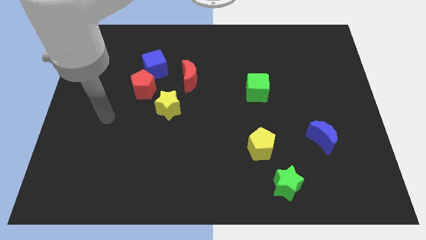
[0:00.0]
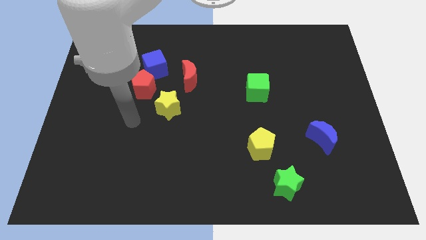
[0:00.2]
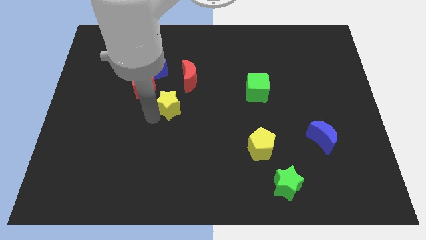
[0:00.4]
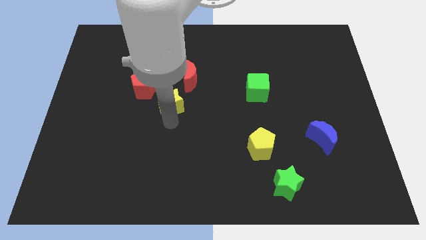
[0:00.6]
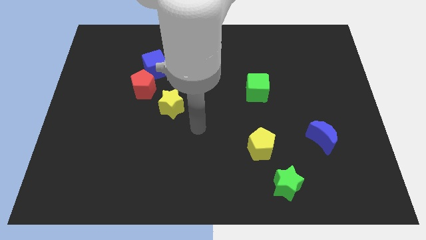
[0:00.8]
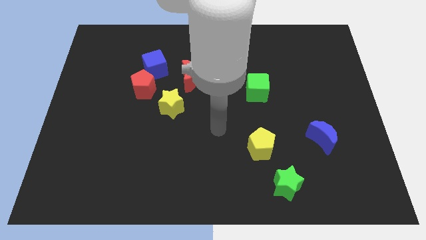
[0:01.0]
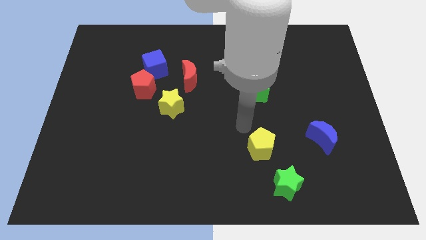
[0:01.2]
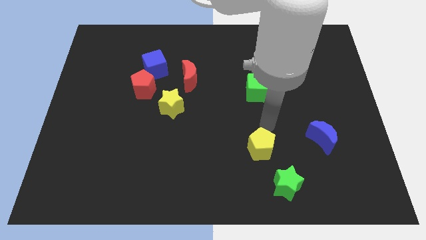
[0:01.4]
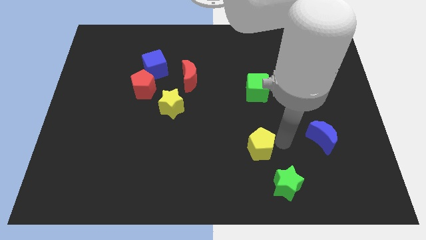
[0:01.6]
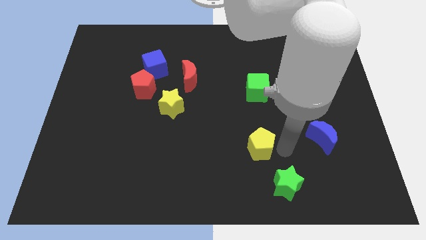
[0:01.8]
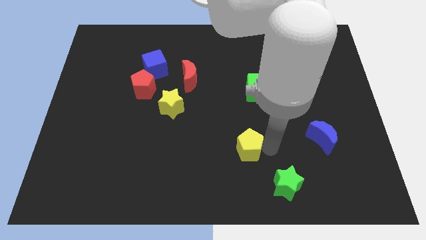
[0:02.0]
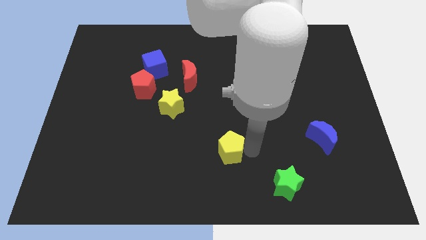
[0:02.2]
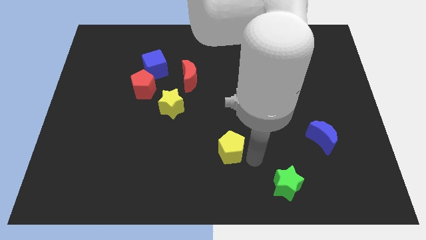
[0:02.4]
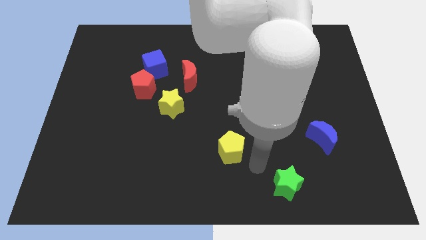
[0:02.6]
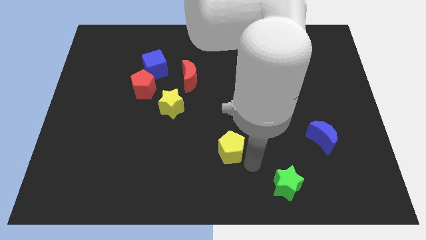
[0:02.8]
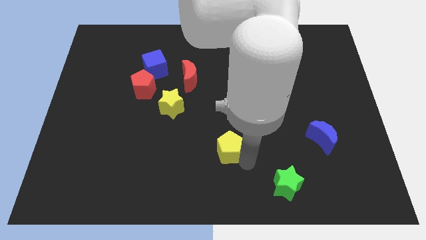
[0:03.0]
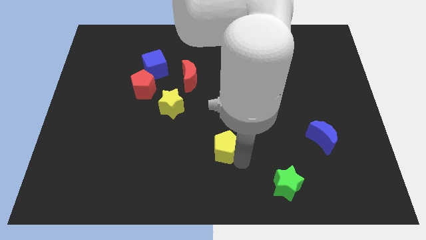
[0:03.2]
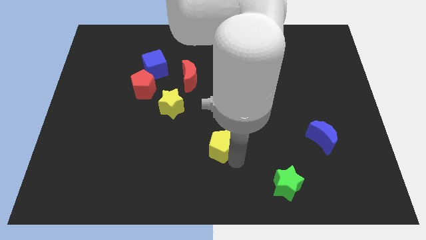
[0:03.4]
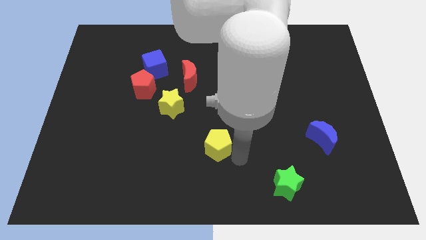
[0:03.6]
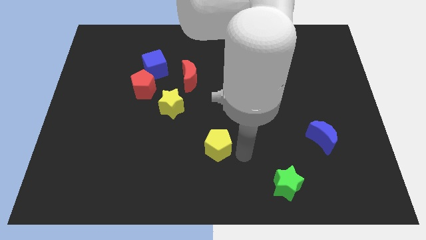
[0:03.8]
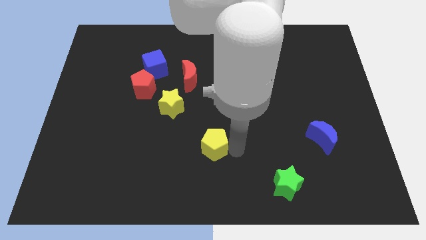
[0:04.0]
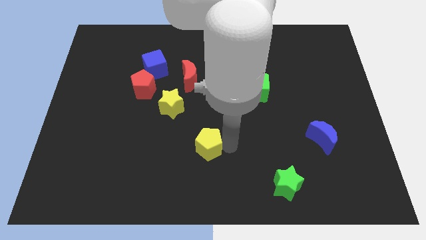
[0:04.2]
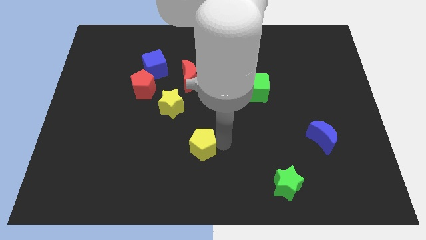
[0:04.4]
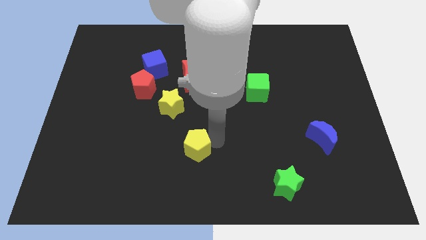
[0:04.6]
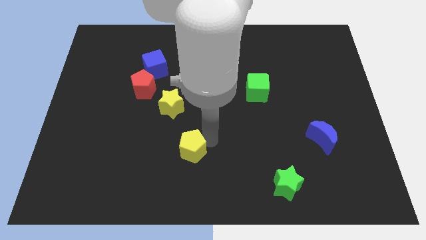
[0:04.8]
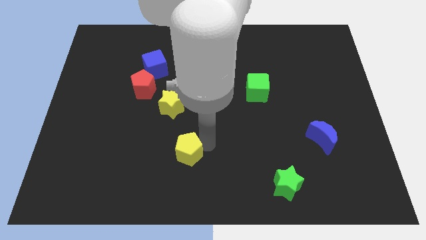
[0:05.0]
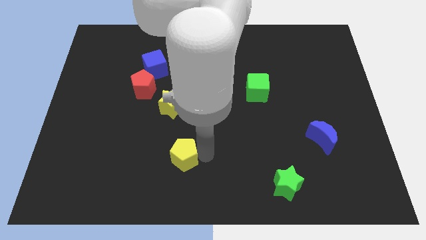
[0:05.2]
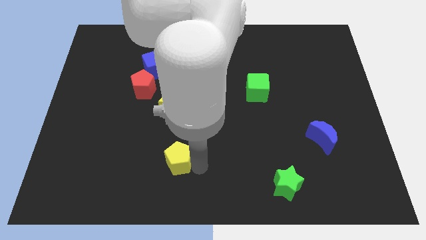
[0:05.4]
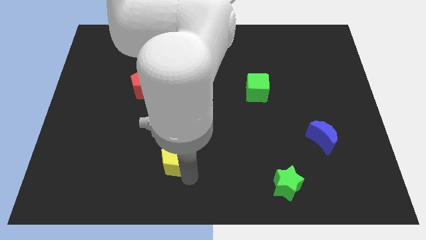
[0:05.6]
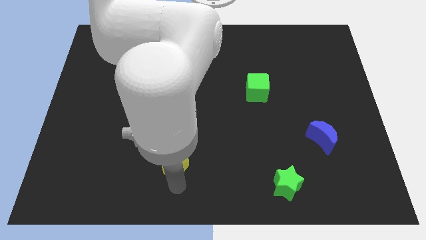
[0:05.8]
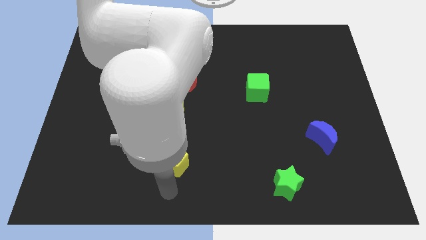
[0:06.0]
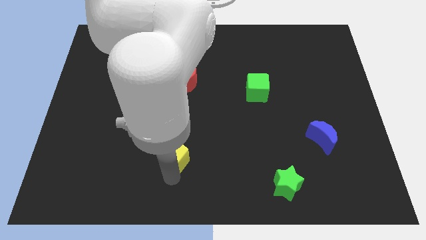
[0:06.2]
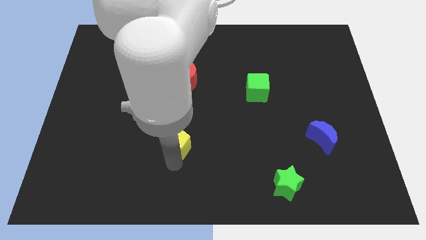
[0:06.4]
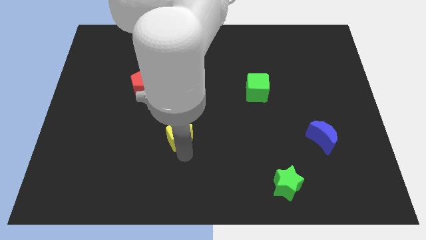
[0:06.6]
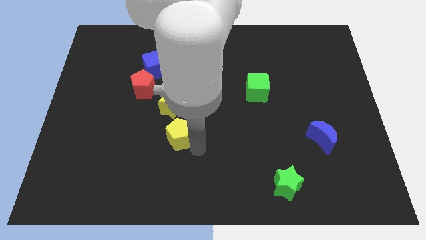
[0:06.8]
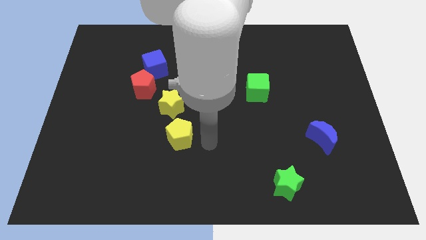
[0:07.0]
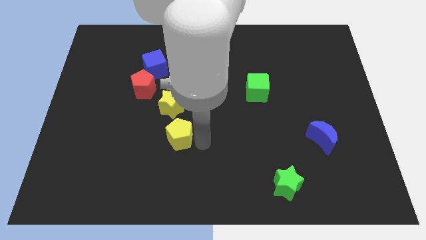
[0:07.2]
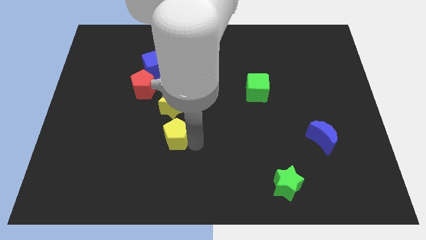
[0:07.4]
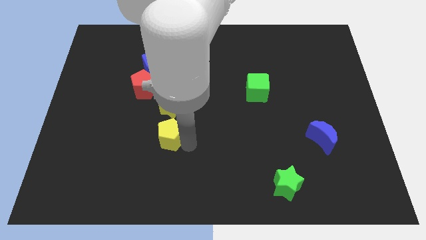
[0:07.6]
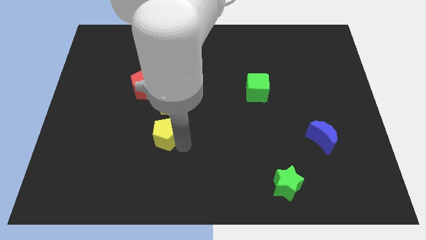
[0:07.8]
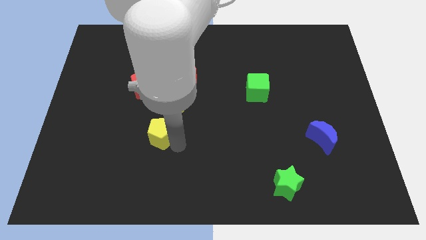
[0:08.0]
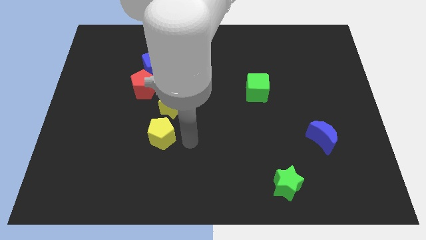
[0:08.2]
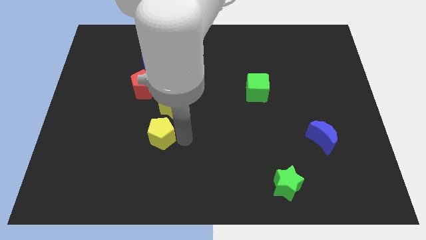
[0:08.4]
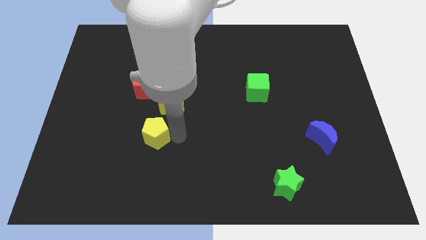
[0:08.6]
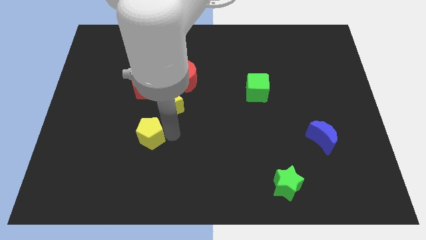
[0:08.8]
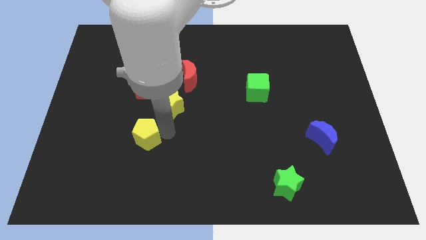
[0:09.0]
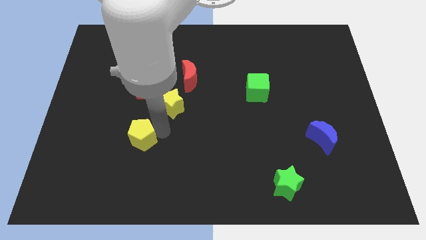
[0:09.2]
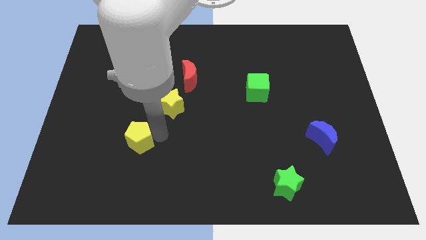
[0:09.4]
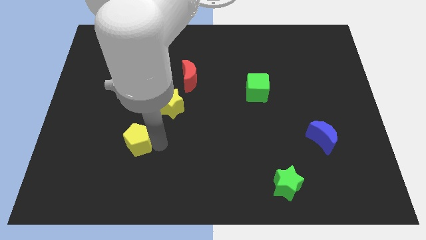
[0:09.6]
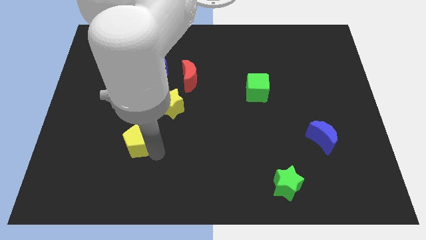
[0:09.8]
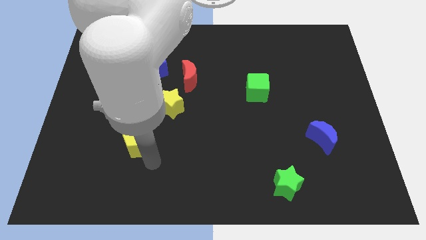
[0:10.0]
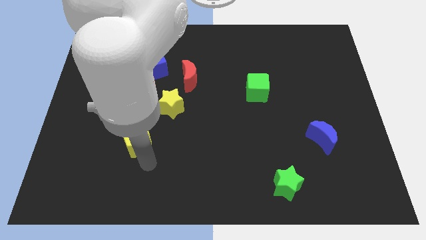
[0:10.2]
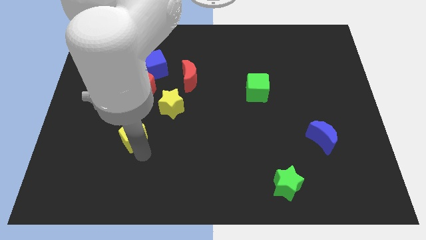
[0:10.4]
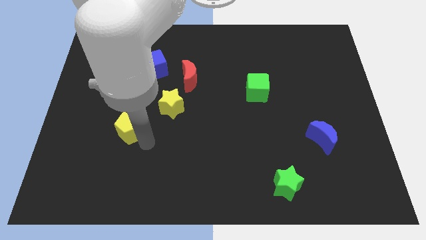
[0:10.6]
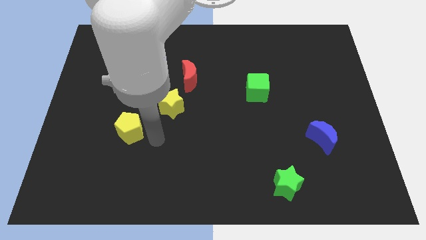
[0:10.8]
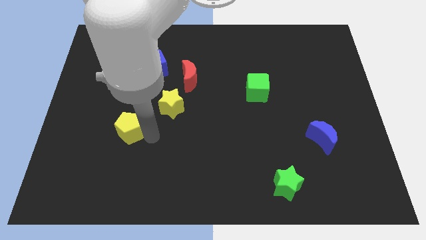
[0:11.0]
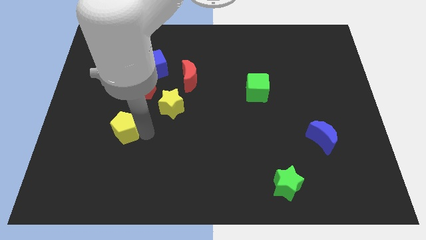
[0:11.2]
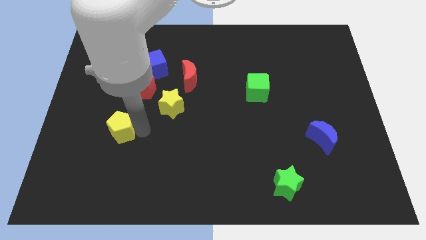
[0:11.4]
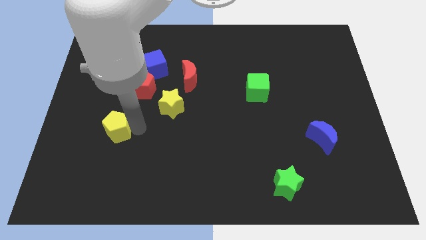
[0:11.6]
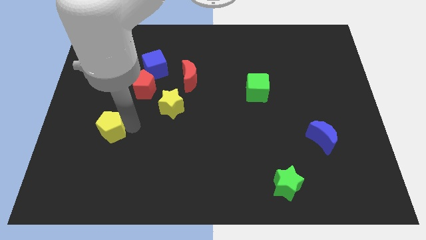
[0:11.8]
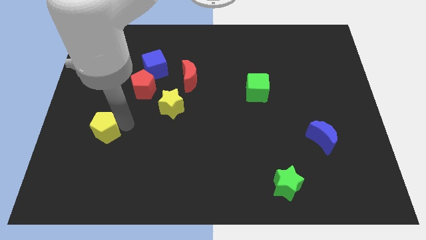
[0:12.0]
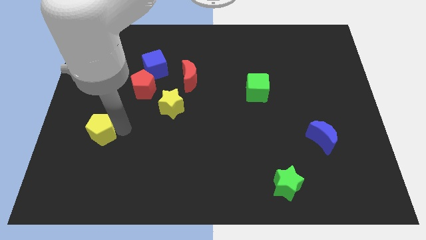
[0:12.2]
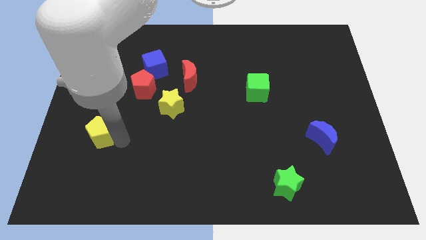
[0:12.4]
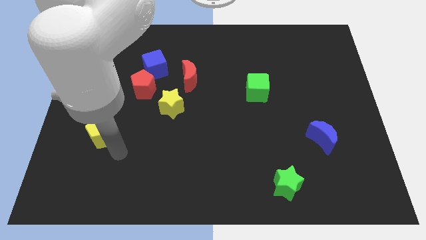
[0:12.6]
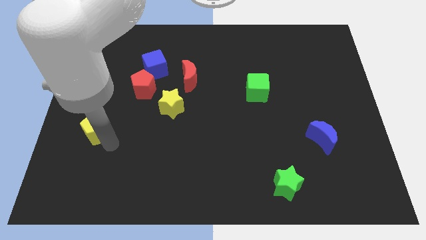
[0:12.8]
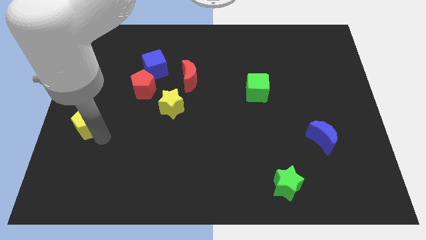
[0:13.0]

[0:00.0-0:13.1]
move the yellow pentagon to the left side
